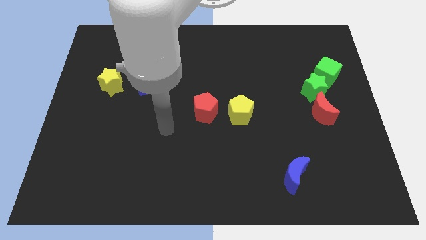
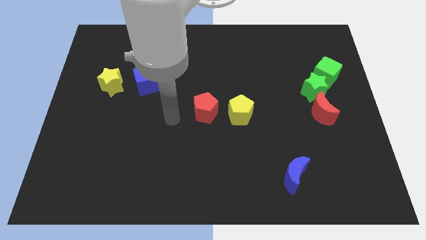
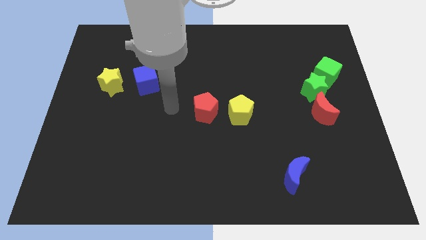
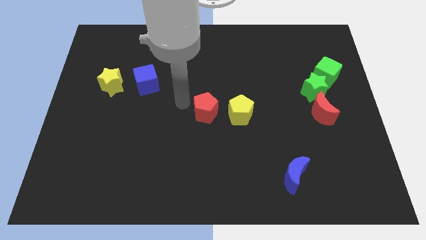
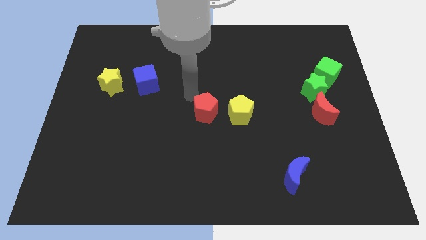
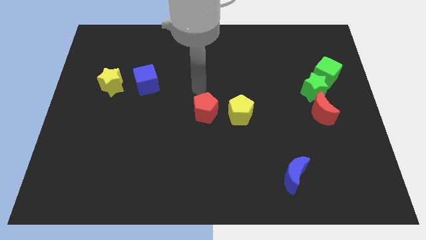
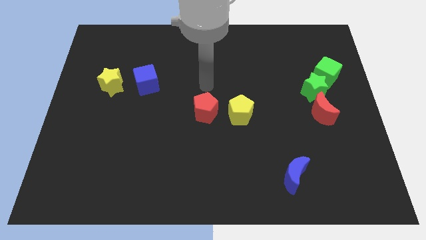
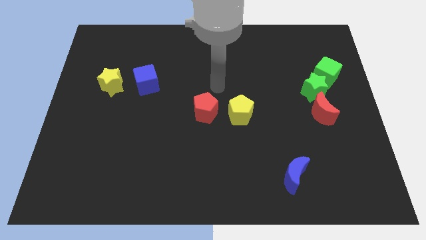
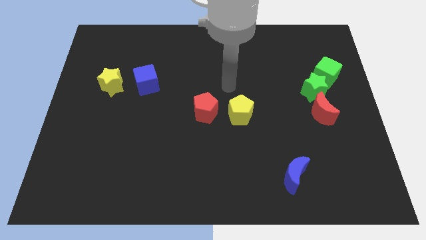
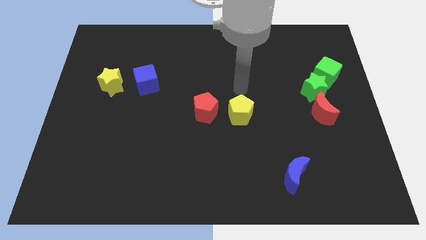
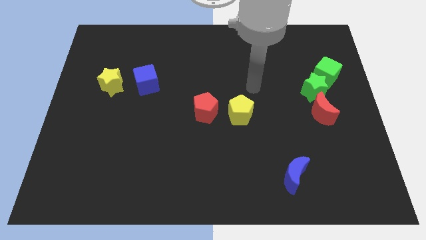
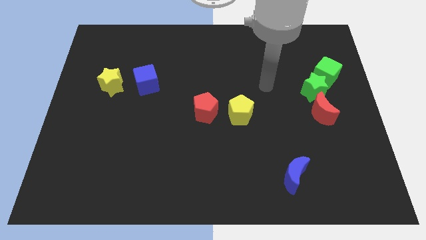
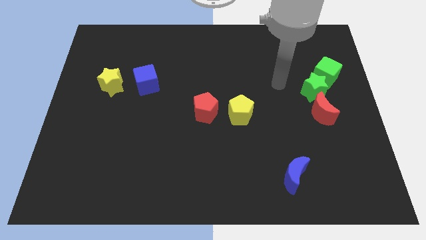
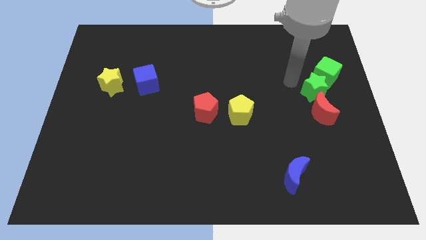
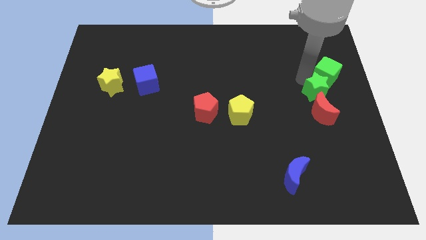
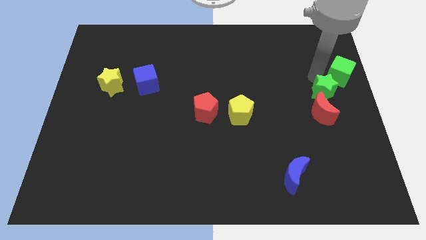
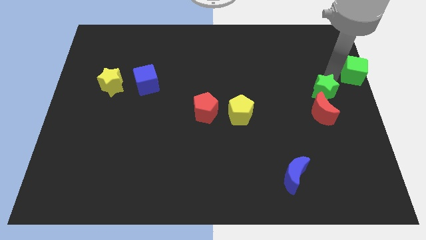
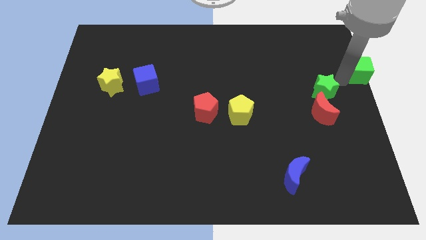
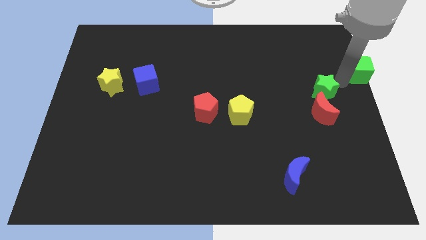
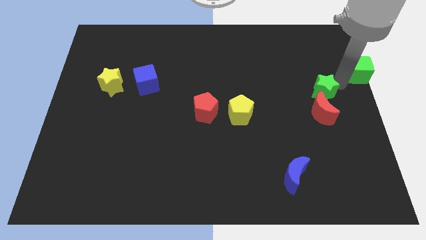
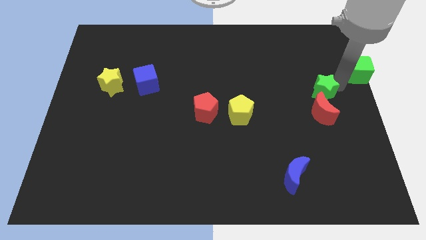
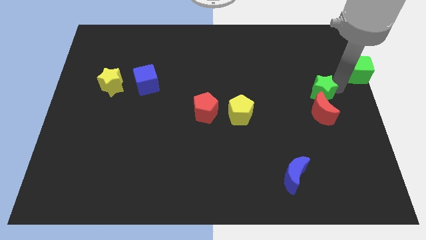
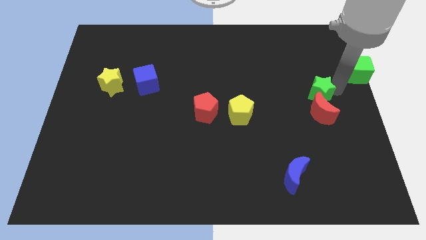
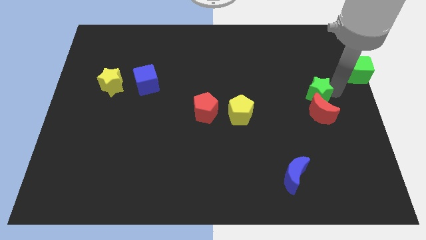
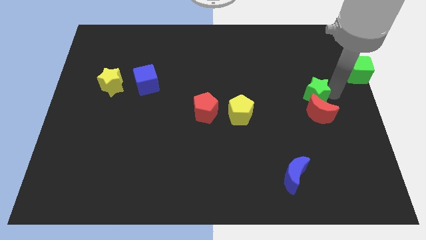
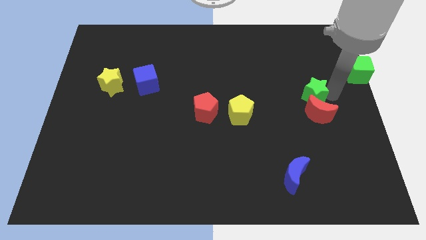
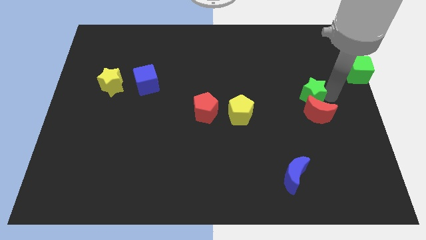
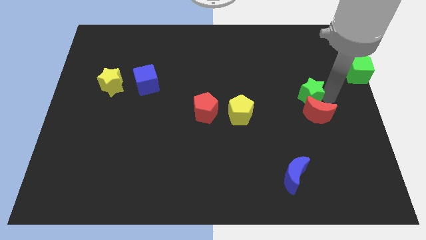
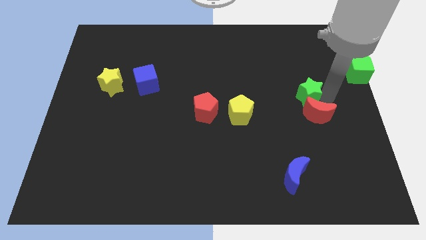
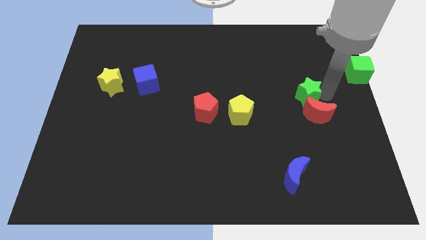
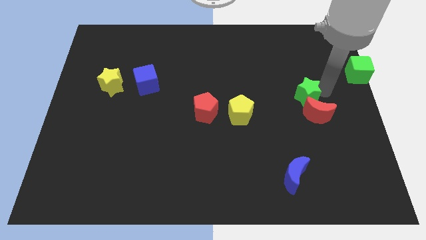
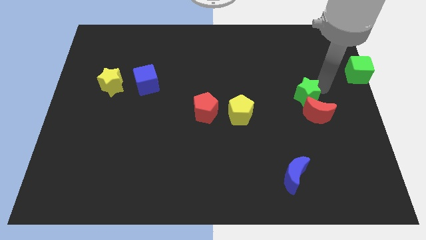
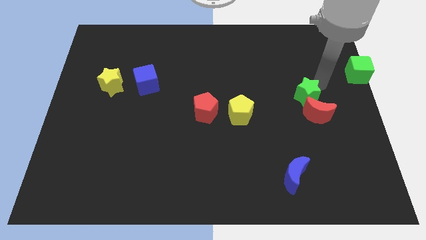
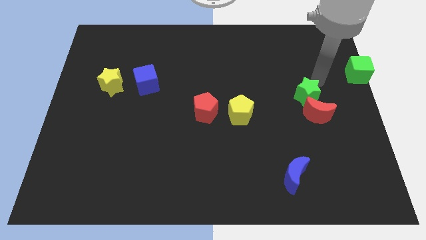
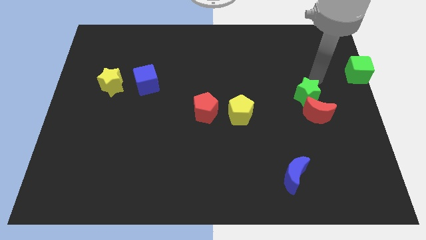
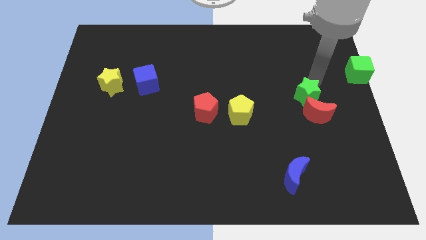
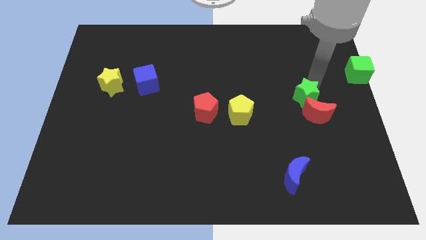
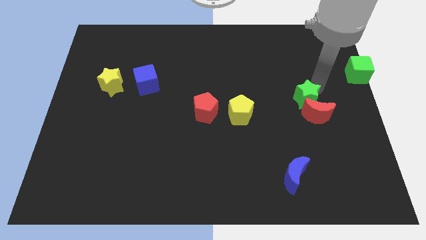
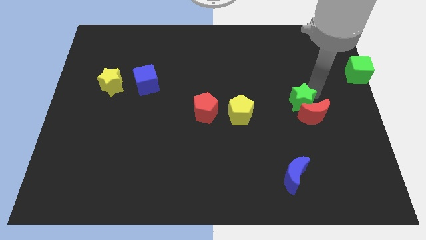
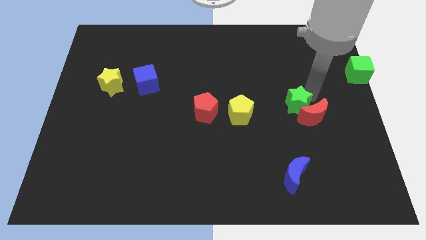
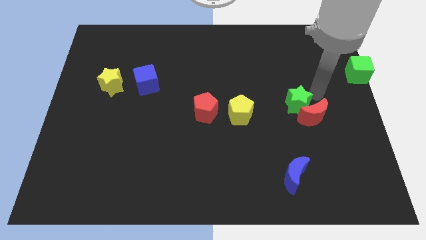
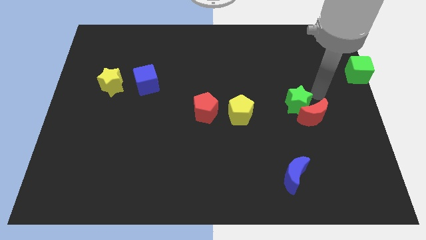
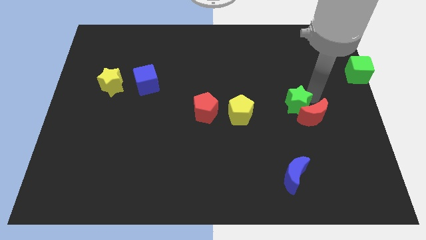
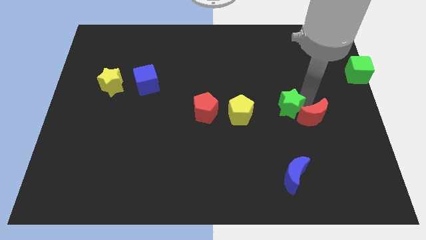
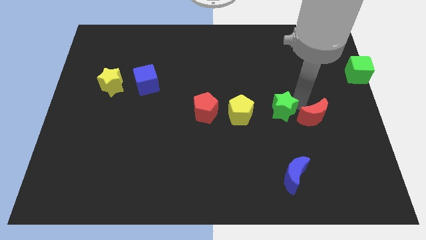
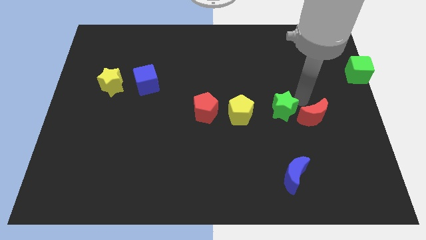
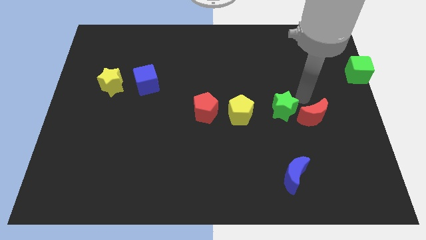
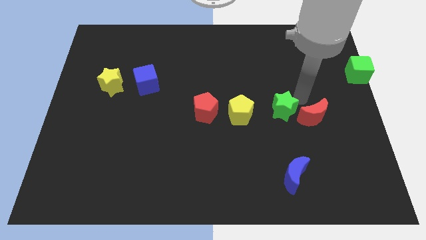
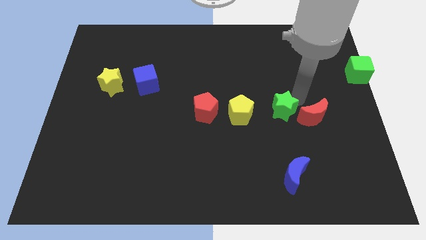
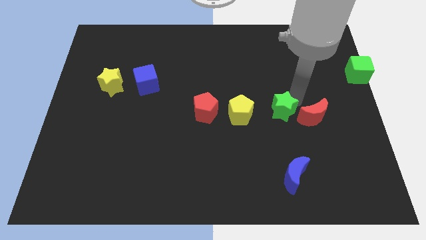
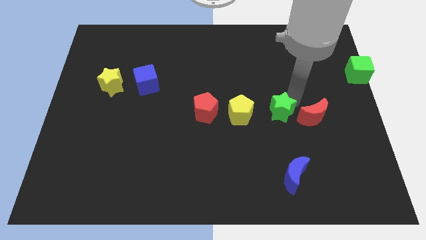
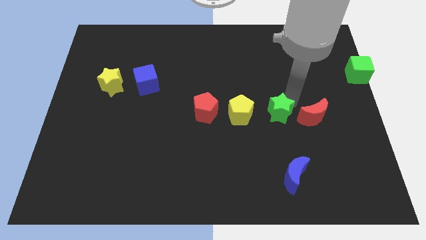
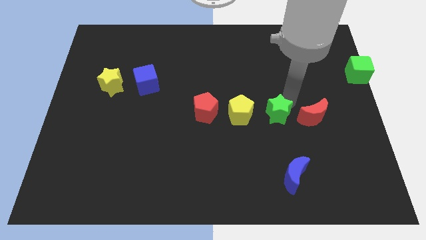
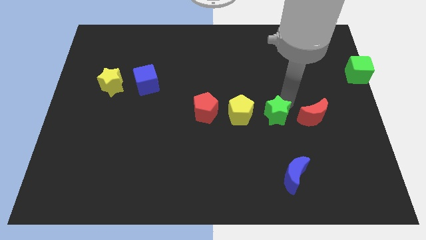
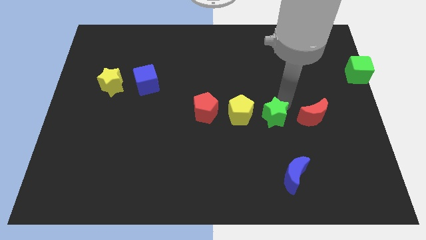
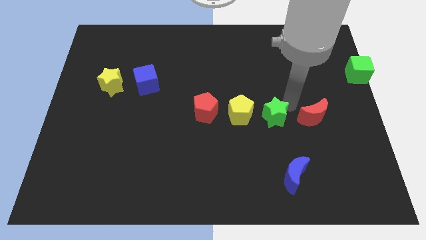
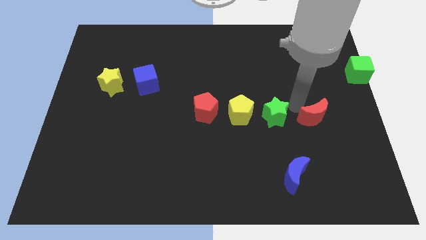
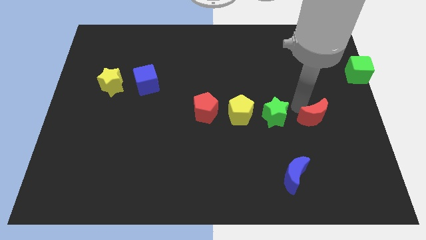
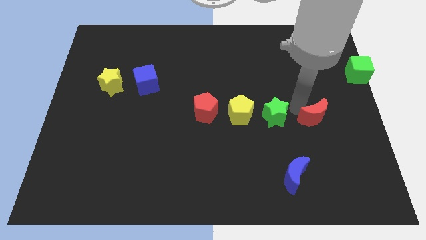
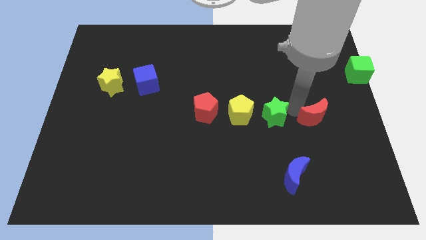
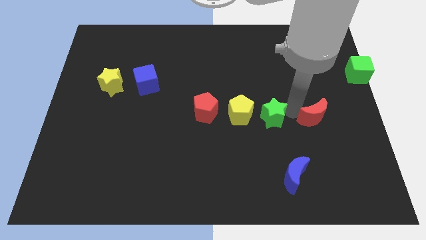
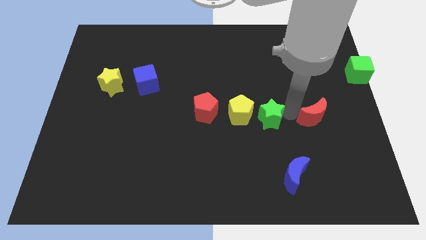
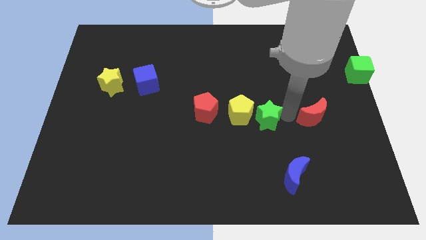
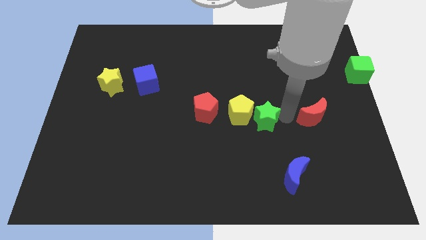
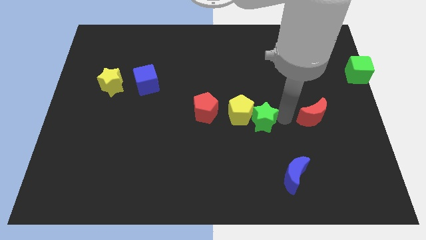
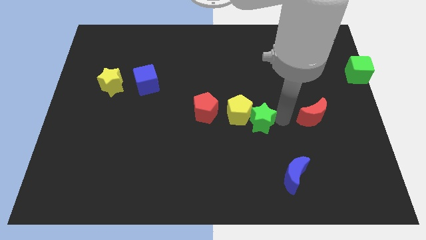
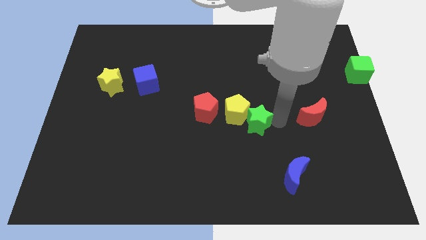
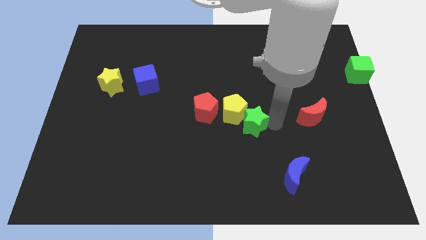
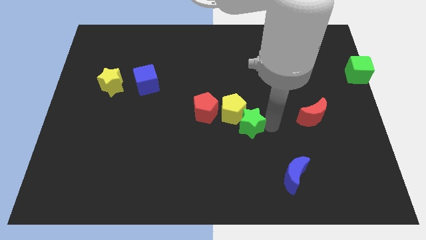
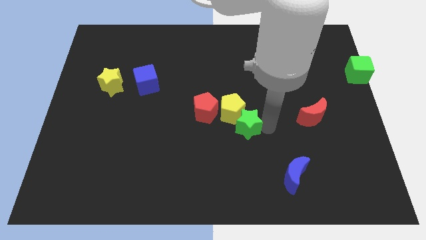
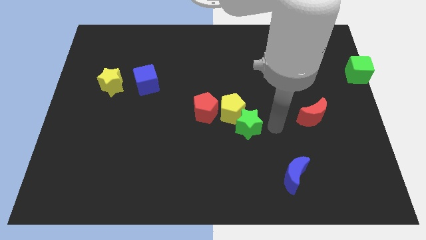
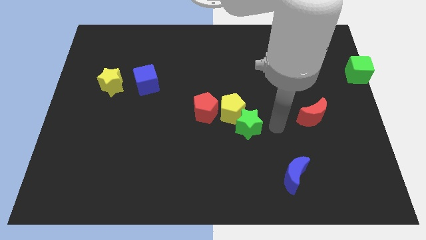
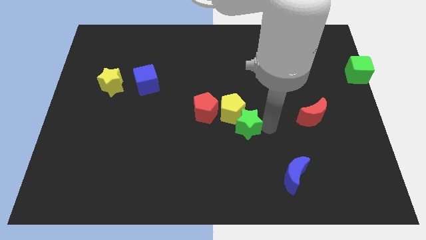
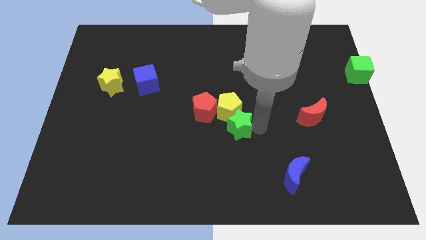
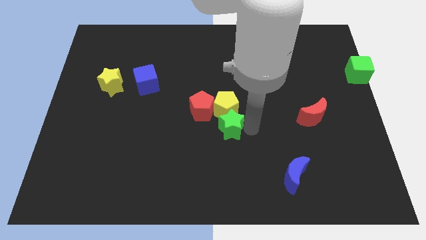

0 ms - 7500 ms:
push the green star to the bottom left side of the yellow pentagon

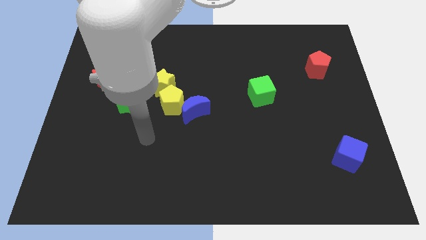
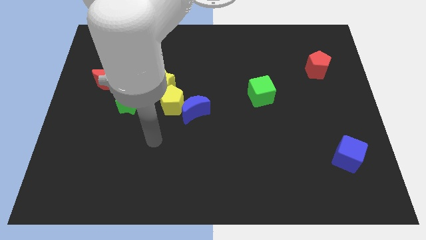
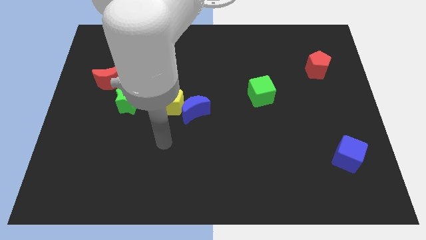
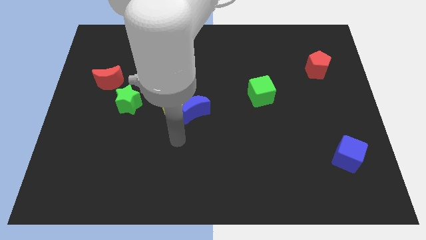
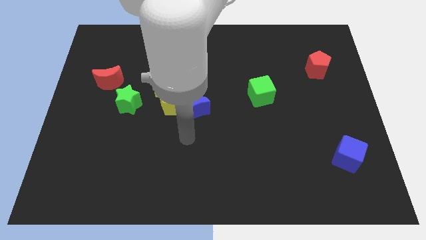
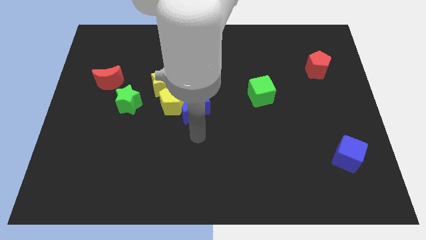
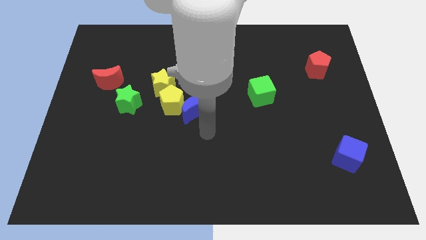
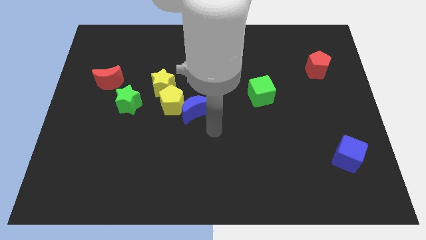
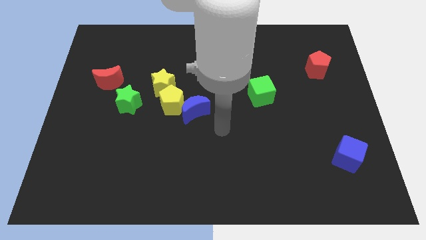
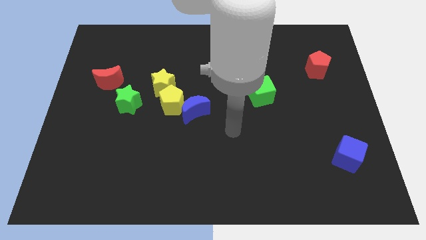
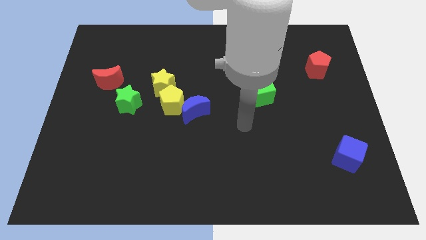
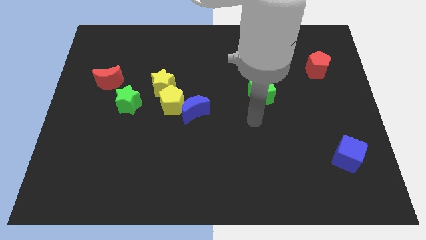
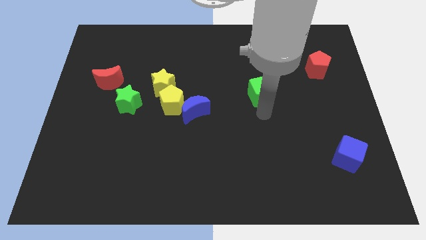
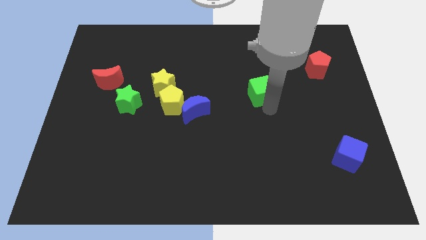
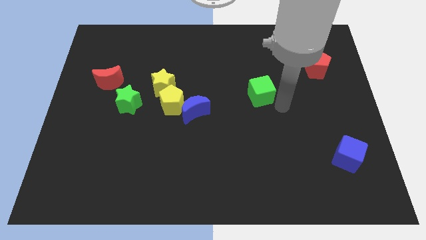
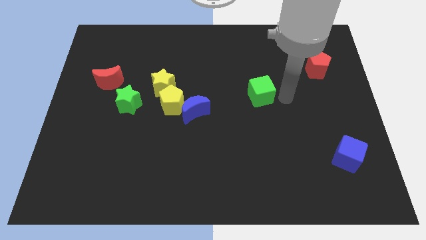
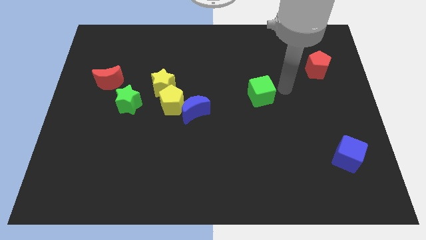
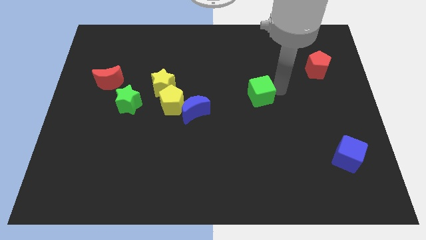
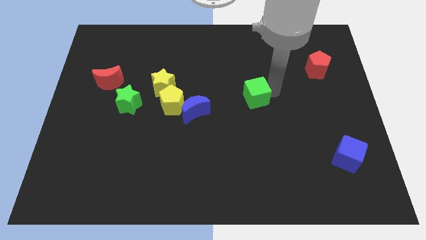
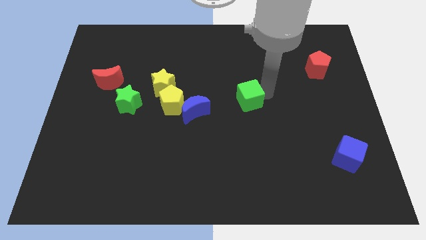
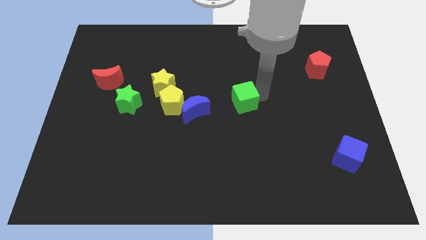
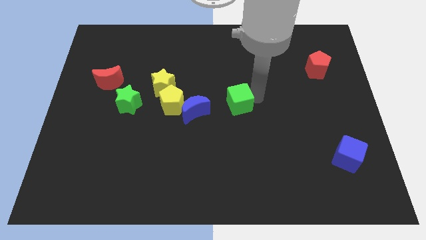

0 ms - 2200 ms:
move the green cube just right of the yellow pentagon
